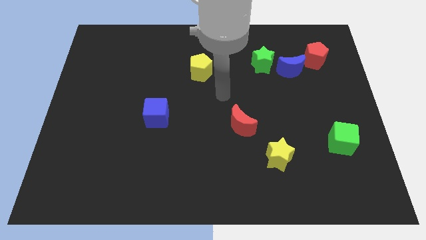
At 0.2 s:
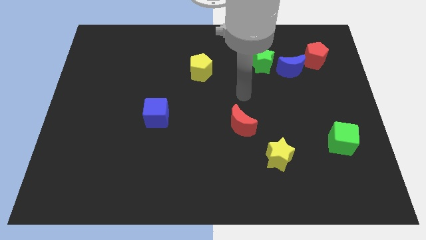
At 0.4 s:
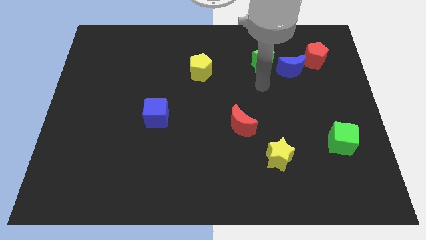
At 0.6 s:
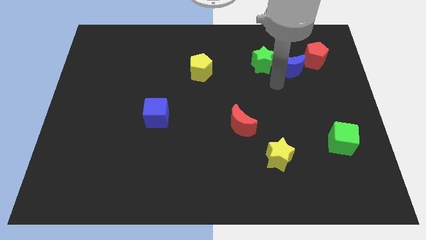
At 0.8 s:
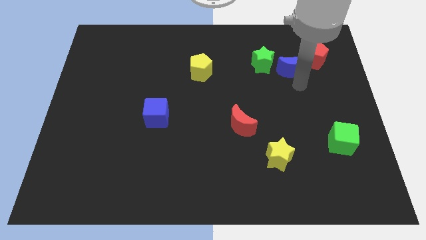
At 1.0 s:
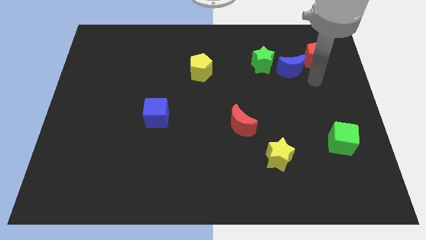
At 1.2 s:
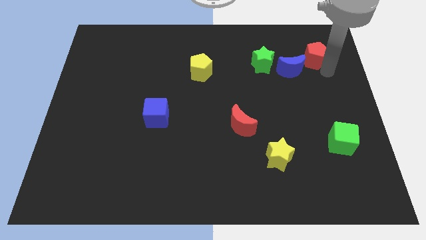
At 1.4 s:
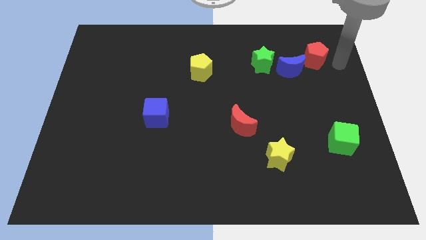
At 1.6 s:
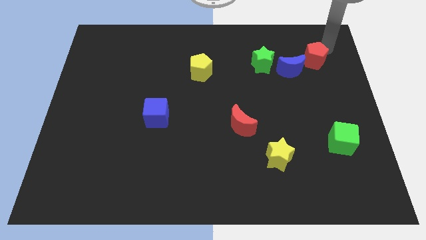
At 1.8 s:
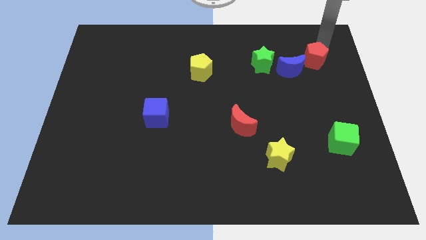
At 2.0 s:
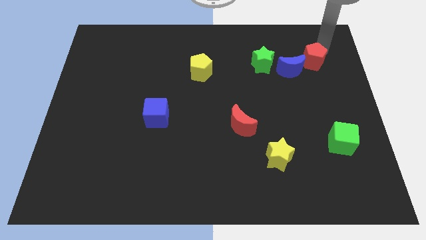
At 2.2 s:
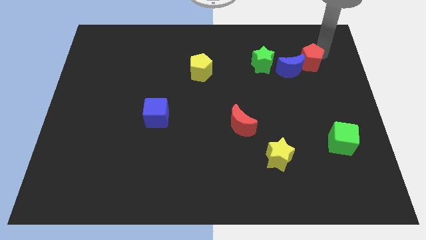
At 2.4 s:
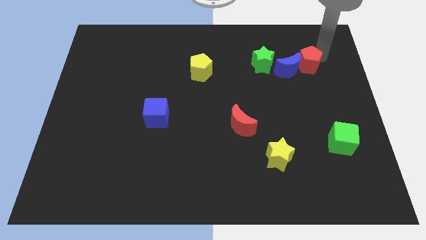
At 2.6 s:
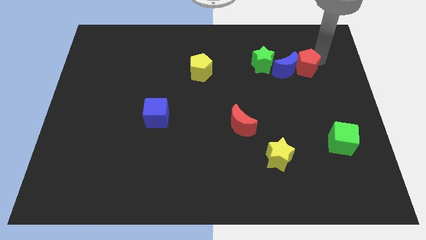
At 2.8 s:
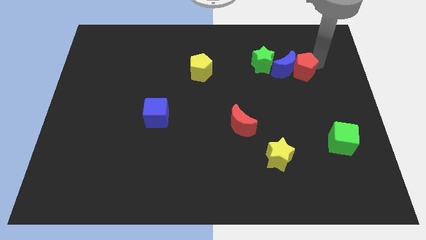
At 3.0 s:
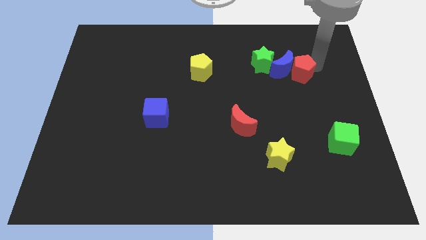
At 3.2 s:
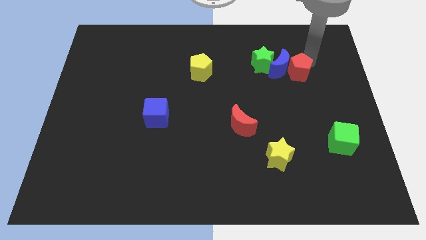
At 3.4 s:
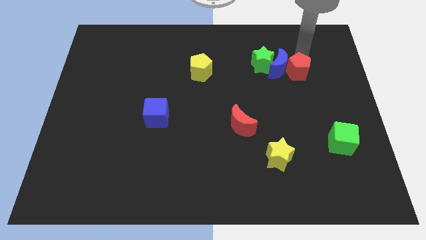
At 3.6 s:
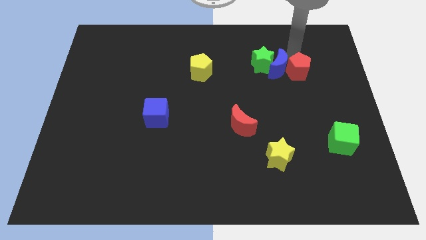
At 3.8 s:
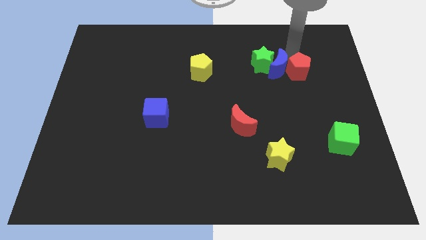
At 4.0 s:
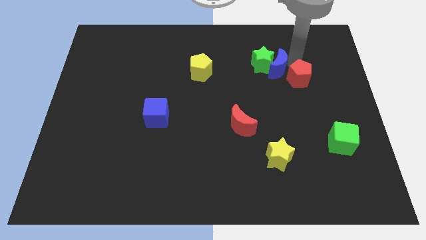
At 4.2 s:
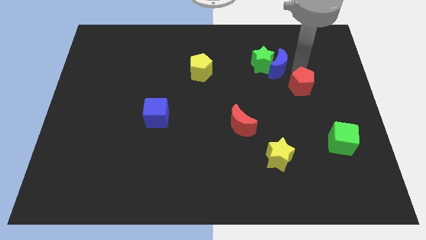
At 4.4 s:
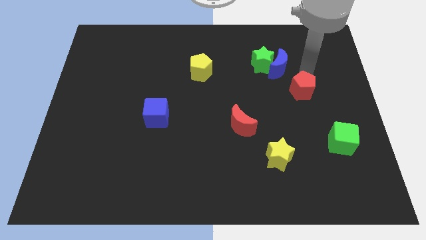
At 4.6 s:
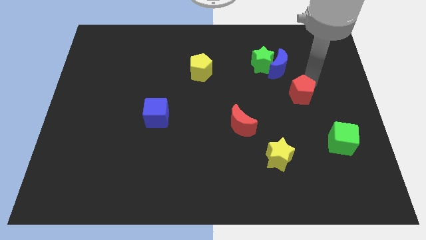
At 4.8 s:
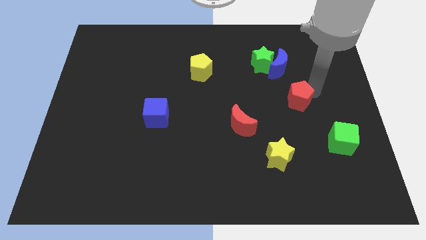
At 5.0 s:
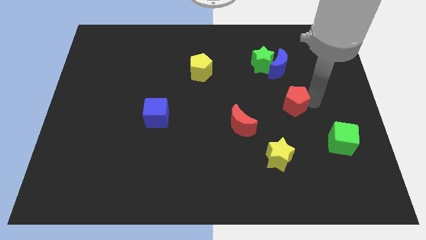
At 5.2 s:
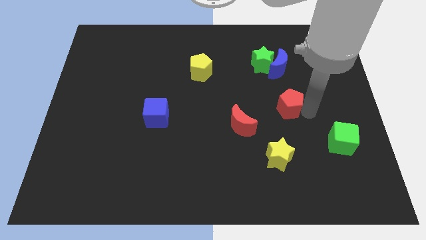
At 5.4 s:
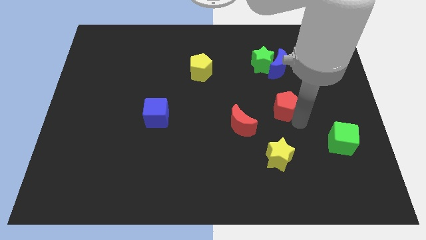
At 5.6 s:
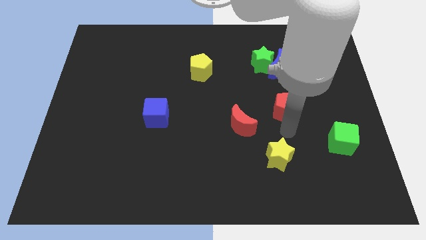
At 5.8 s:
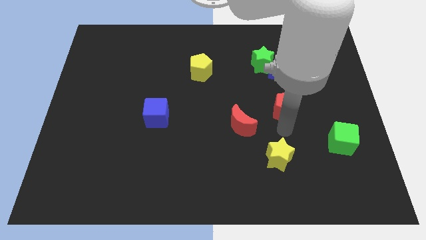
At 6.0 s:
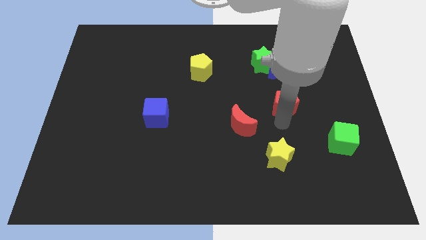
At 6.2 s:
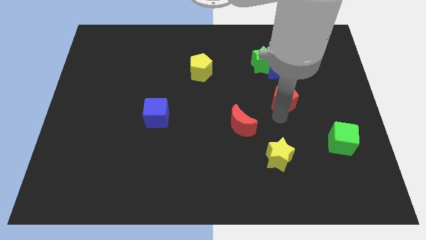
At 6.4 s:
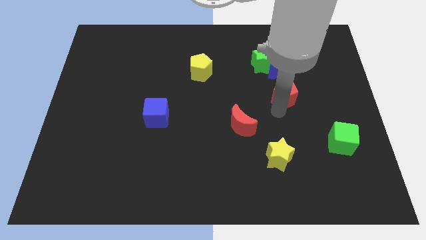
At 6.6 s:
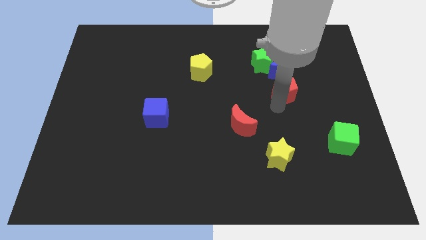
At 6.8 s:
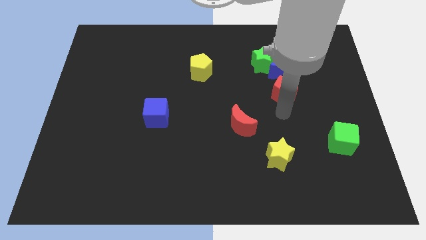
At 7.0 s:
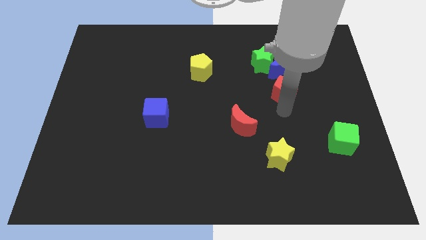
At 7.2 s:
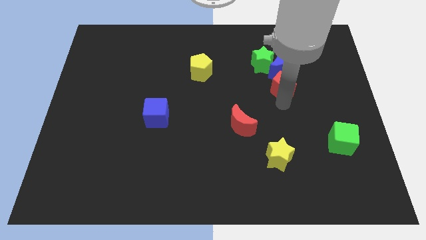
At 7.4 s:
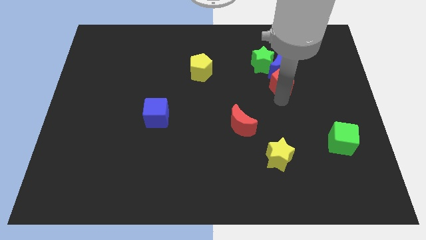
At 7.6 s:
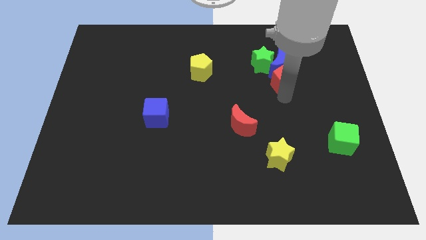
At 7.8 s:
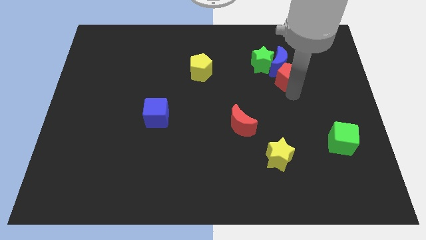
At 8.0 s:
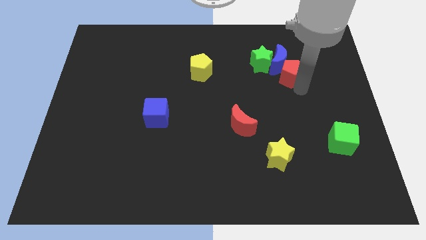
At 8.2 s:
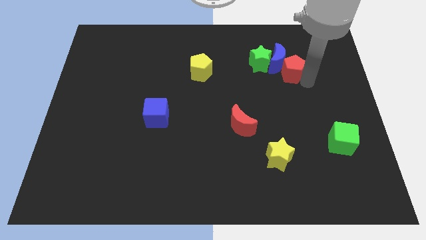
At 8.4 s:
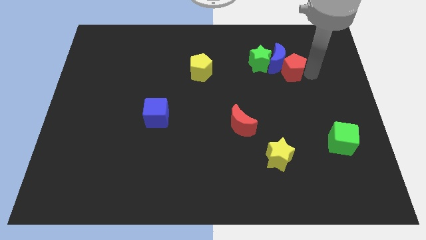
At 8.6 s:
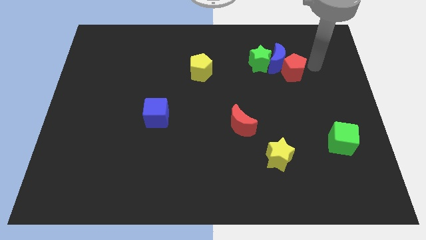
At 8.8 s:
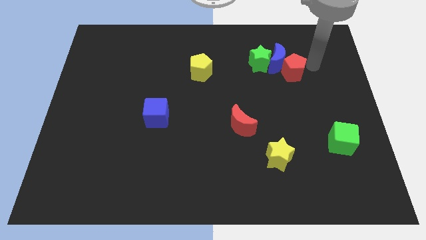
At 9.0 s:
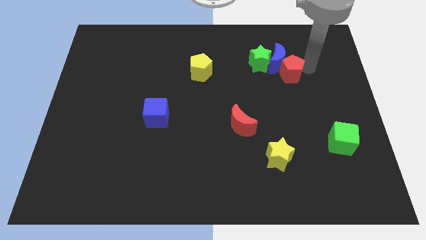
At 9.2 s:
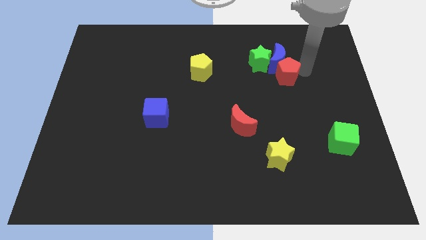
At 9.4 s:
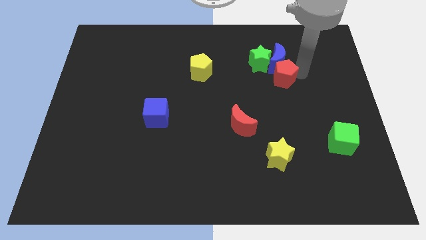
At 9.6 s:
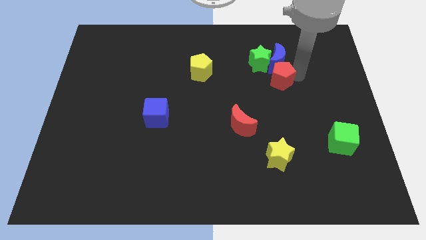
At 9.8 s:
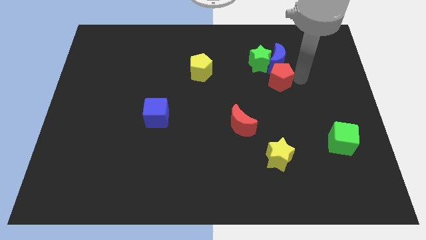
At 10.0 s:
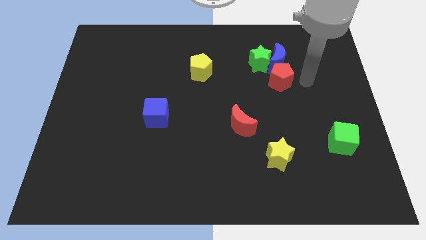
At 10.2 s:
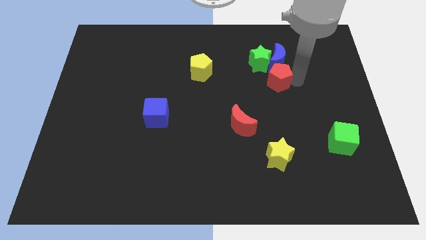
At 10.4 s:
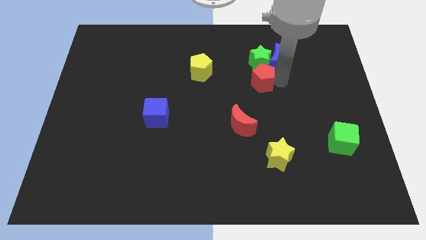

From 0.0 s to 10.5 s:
slide the red pentagon diagonally down and to the left of the green star

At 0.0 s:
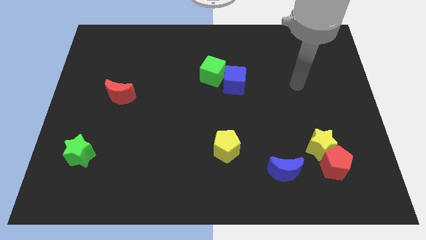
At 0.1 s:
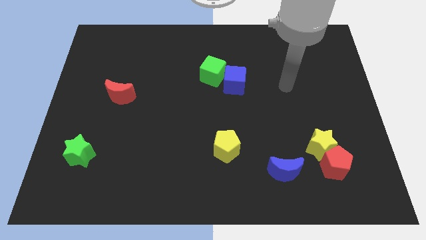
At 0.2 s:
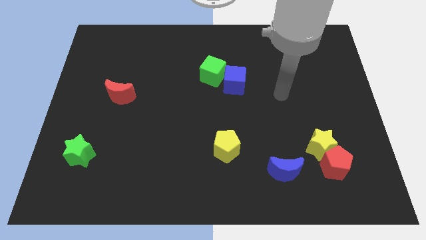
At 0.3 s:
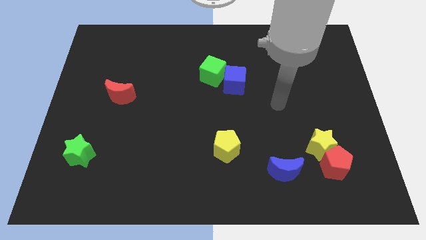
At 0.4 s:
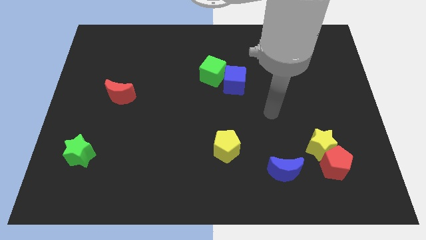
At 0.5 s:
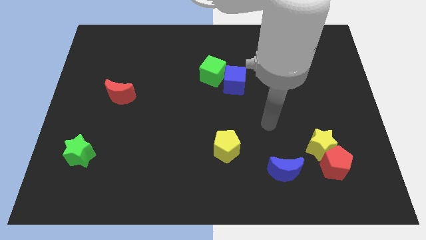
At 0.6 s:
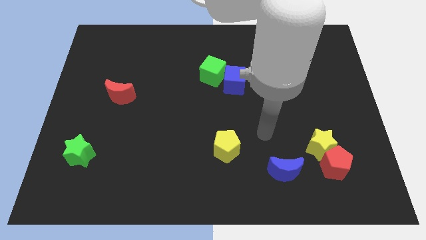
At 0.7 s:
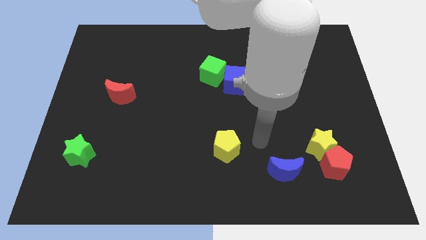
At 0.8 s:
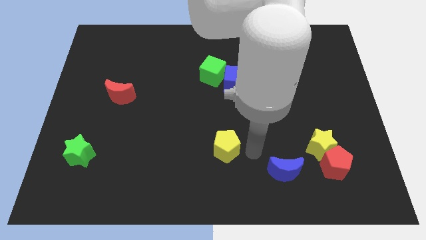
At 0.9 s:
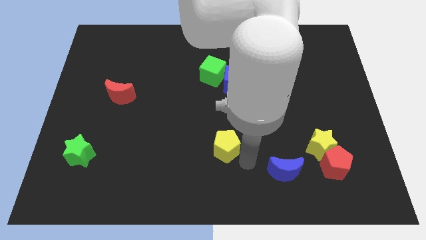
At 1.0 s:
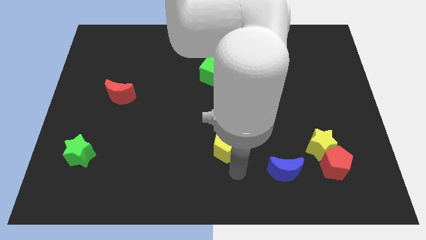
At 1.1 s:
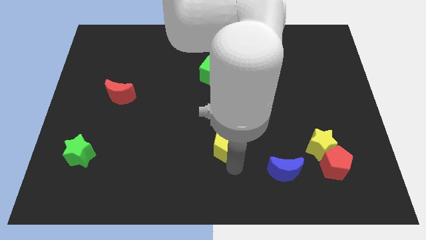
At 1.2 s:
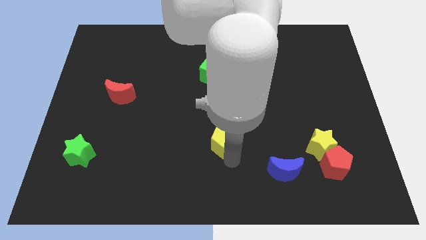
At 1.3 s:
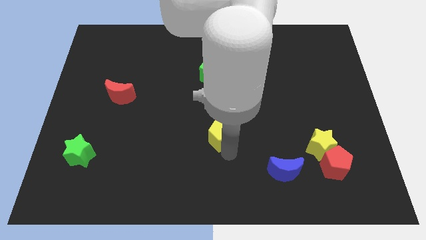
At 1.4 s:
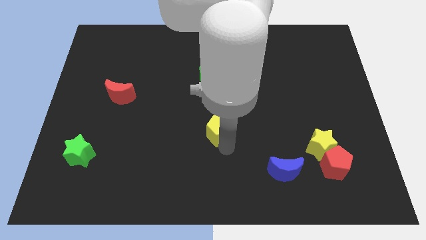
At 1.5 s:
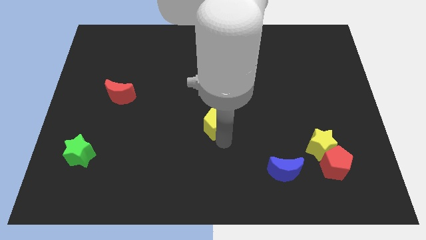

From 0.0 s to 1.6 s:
put the yellow pentagon below the green cube

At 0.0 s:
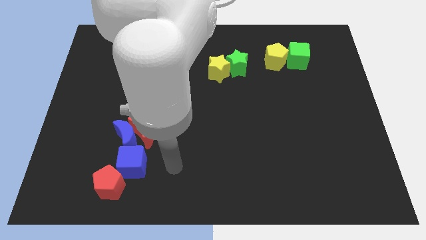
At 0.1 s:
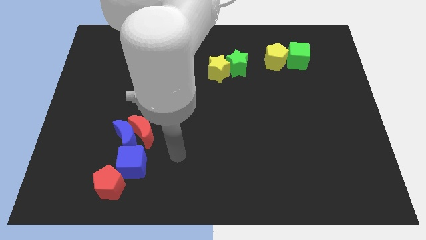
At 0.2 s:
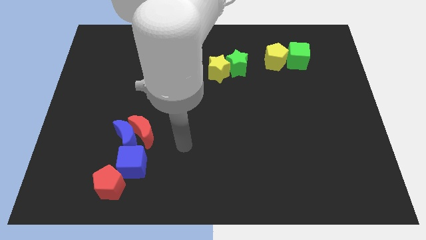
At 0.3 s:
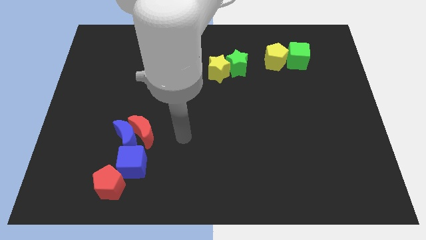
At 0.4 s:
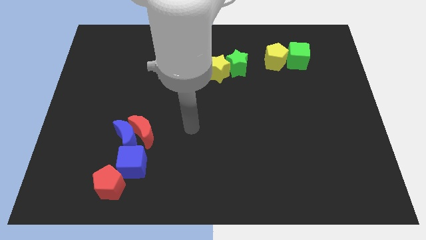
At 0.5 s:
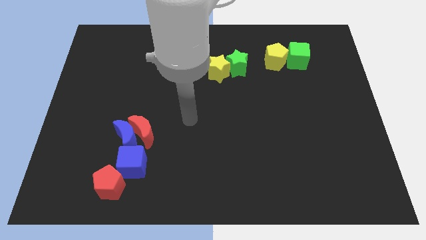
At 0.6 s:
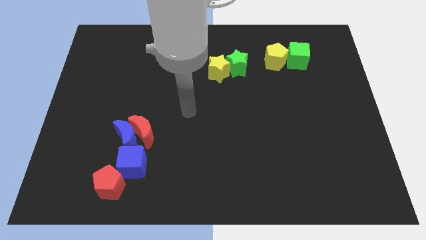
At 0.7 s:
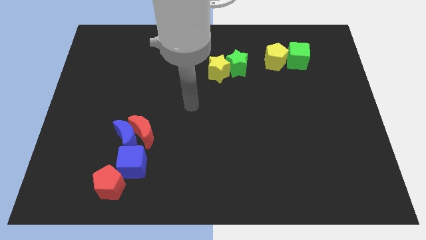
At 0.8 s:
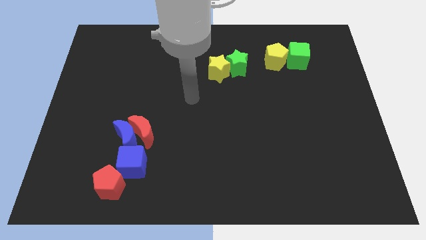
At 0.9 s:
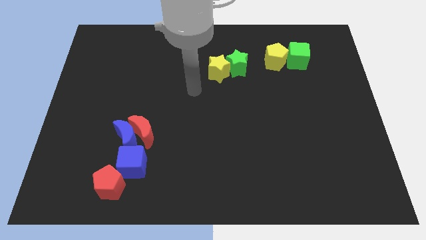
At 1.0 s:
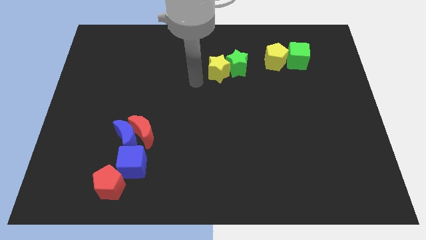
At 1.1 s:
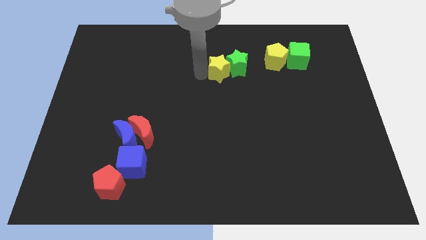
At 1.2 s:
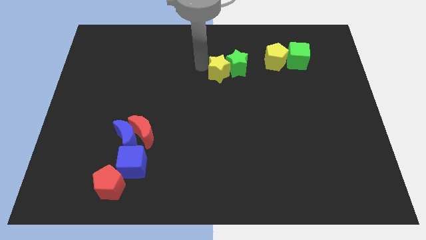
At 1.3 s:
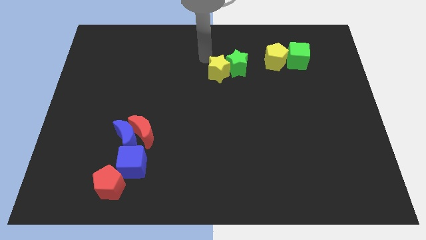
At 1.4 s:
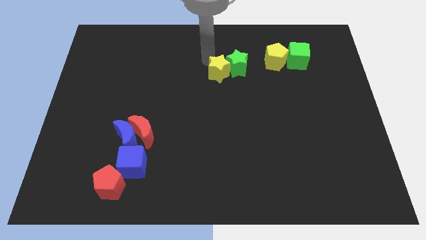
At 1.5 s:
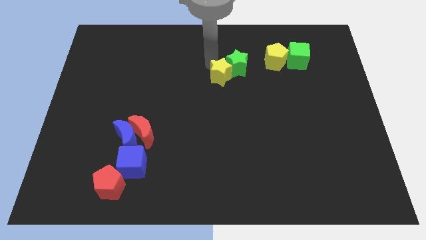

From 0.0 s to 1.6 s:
move the yellow star below the green star
